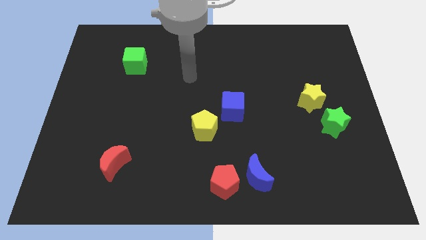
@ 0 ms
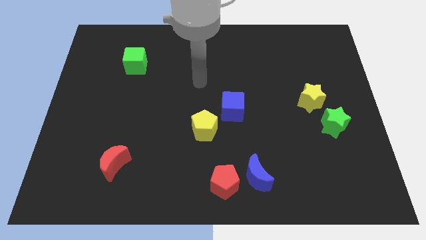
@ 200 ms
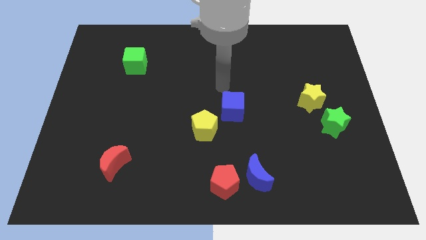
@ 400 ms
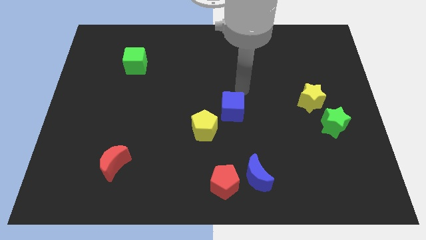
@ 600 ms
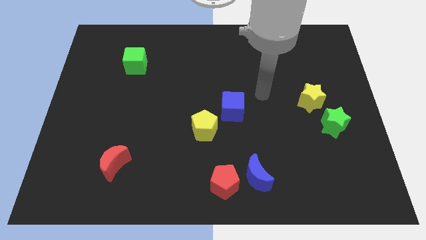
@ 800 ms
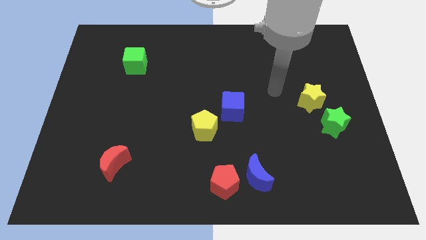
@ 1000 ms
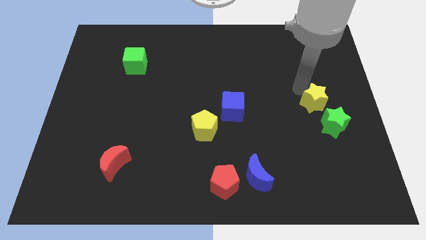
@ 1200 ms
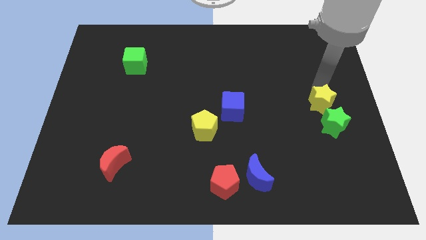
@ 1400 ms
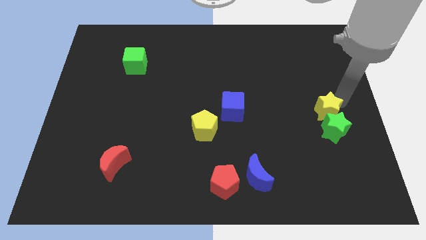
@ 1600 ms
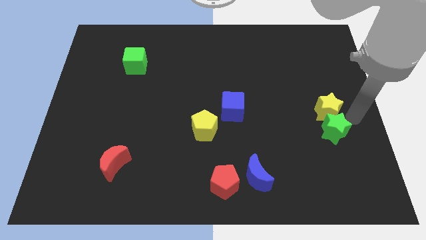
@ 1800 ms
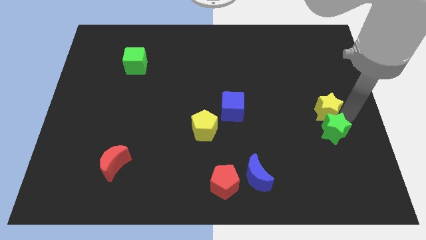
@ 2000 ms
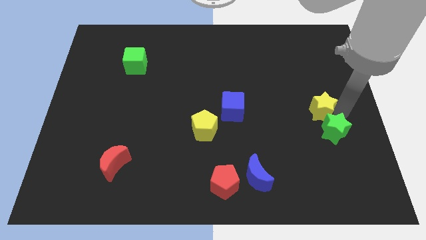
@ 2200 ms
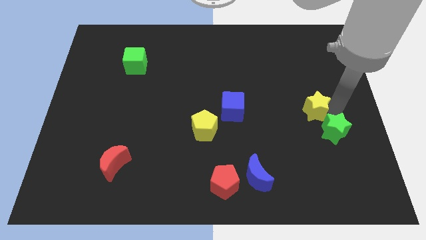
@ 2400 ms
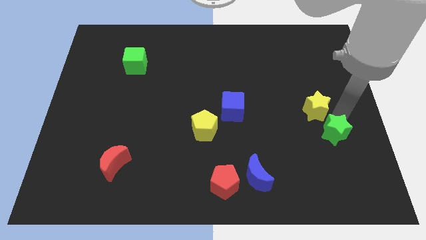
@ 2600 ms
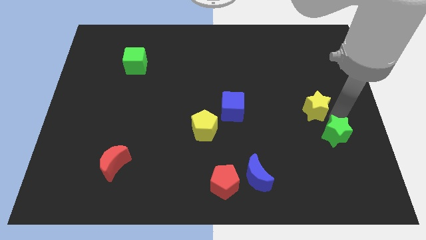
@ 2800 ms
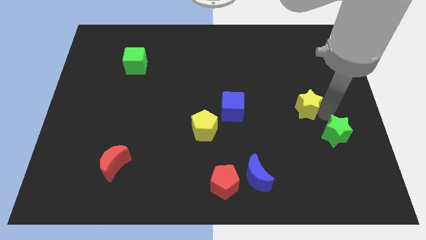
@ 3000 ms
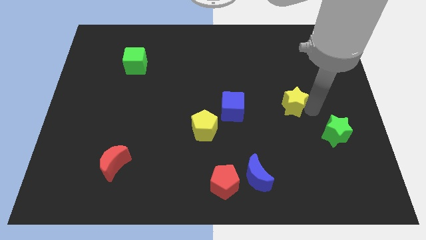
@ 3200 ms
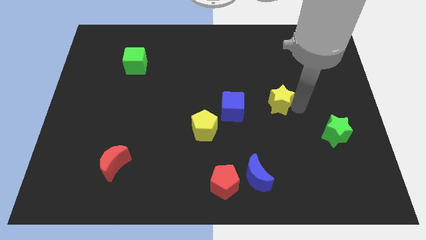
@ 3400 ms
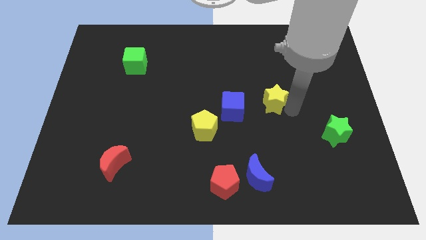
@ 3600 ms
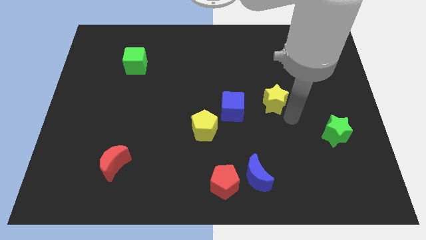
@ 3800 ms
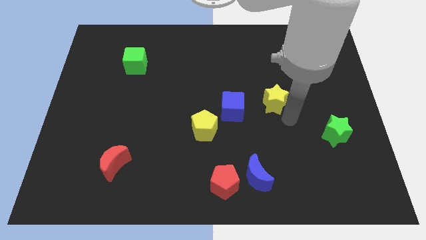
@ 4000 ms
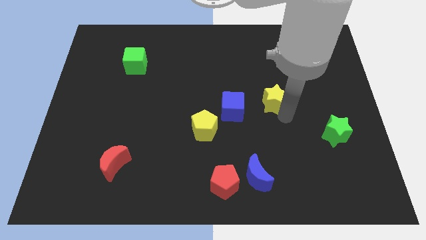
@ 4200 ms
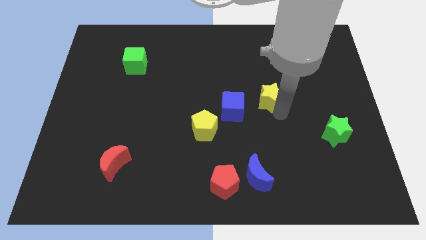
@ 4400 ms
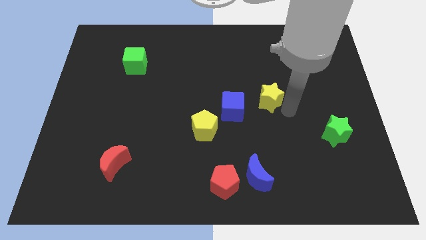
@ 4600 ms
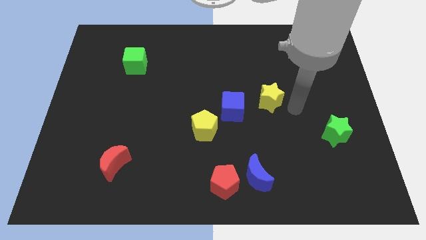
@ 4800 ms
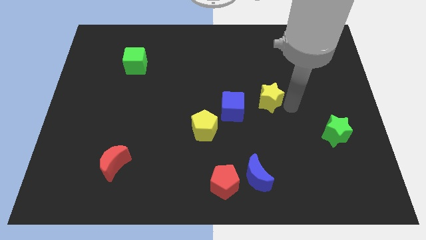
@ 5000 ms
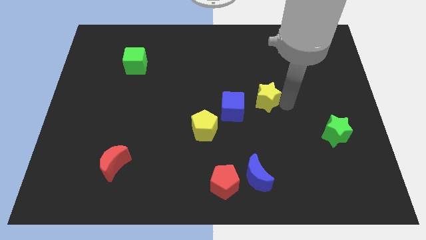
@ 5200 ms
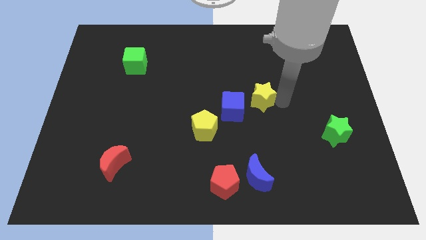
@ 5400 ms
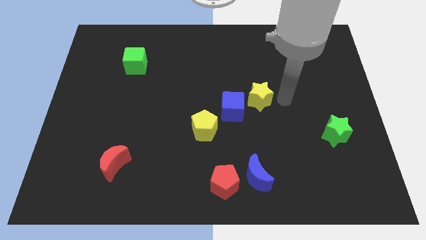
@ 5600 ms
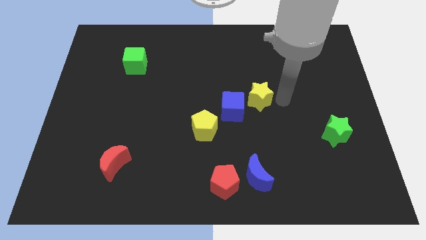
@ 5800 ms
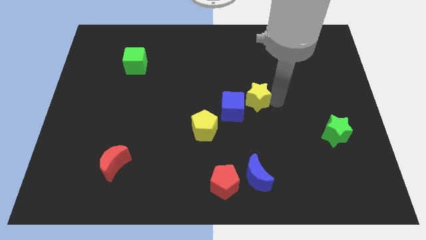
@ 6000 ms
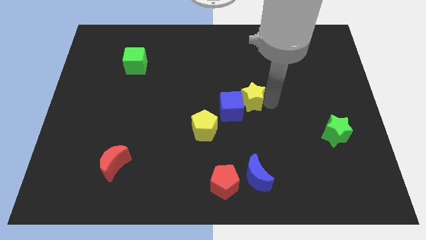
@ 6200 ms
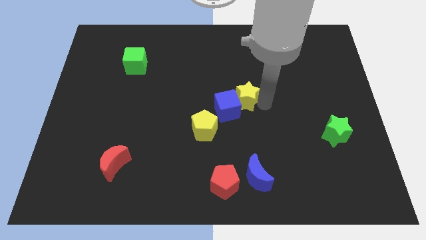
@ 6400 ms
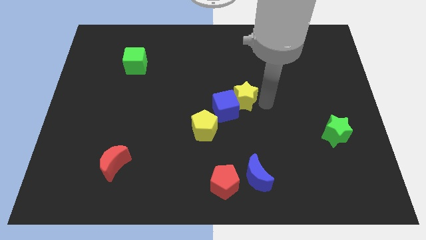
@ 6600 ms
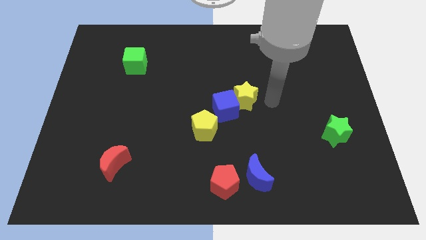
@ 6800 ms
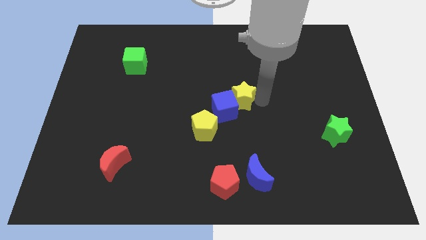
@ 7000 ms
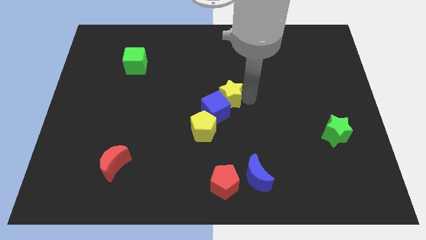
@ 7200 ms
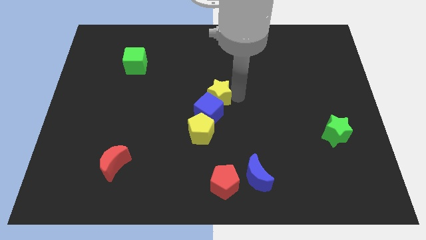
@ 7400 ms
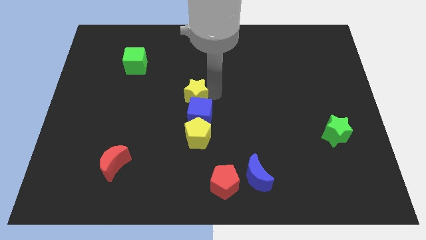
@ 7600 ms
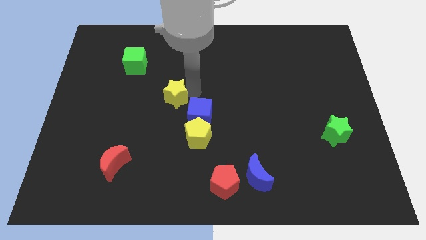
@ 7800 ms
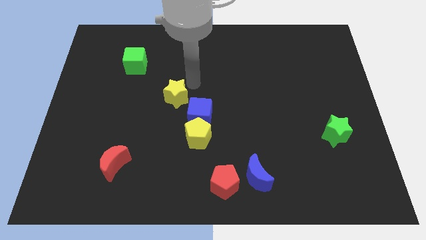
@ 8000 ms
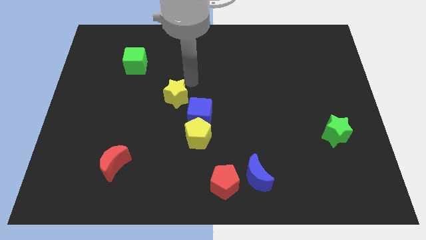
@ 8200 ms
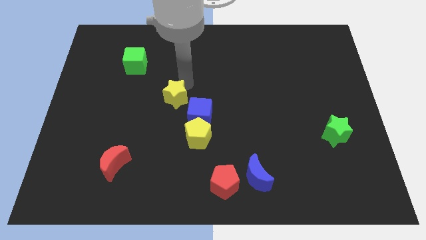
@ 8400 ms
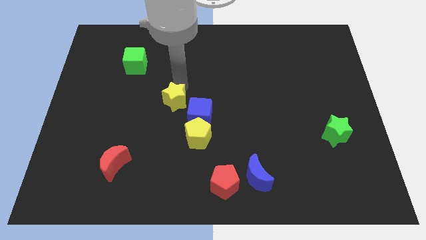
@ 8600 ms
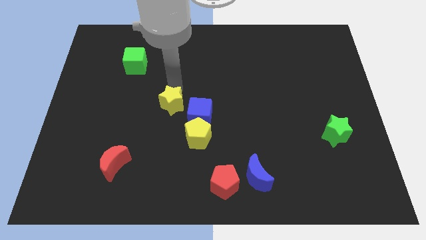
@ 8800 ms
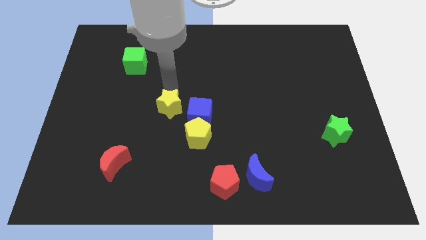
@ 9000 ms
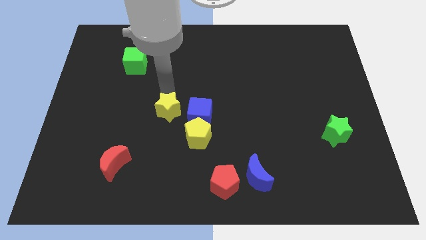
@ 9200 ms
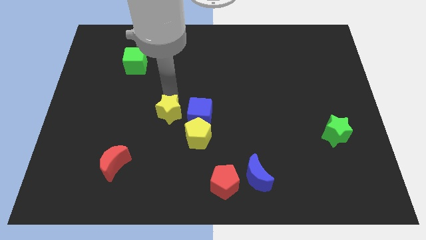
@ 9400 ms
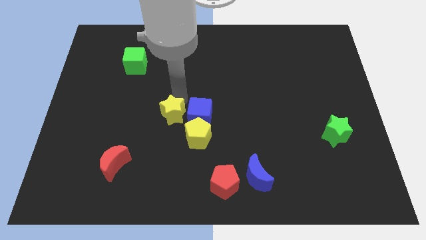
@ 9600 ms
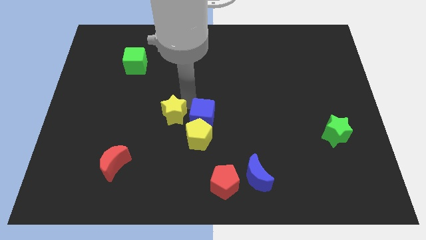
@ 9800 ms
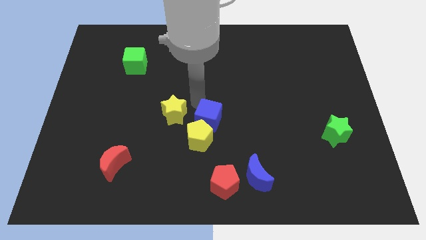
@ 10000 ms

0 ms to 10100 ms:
push the yellow star just left of the blue cube

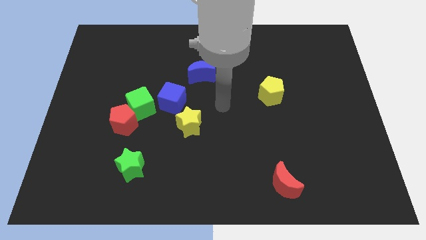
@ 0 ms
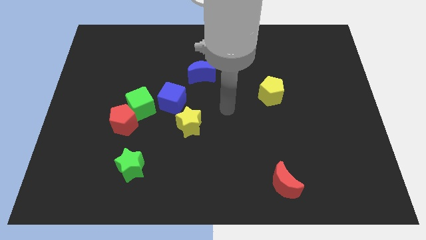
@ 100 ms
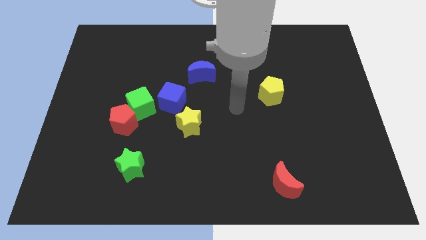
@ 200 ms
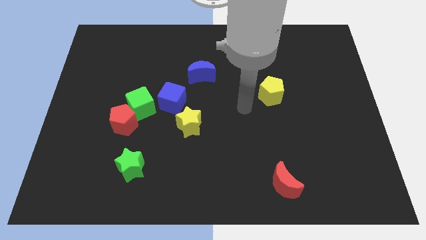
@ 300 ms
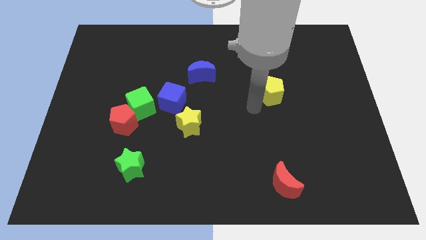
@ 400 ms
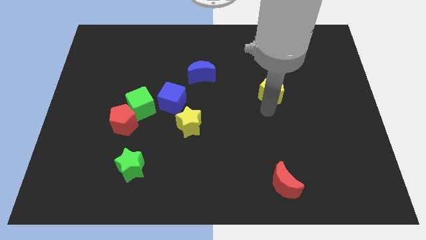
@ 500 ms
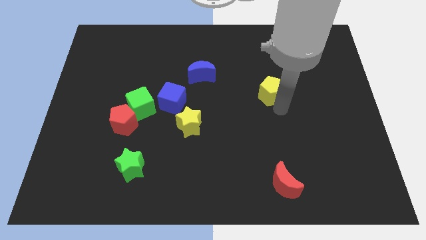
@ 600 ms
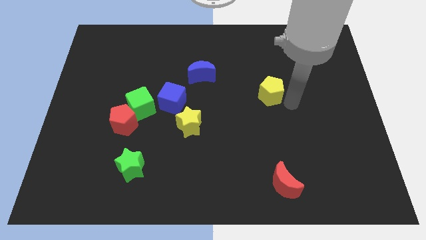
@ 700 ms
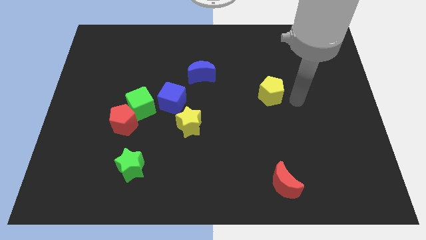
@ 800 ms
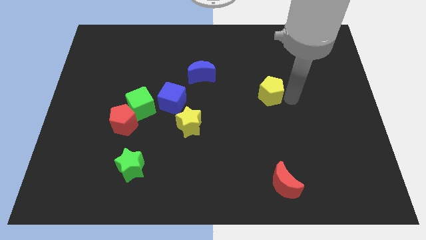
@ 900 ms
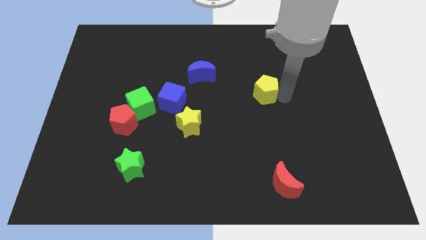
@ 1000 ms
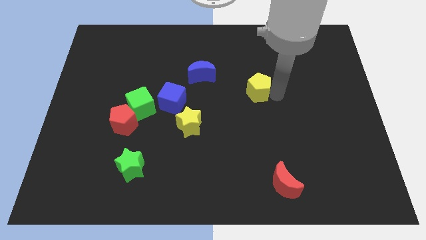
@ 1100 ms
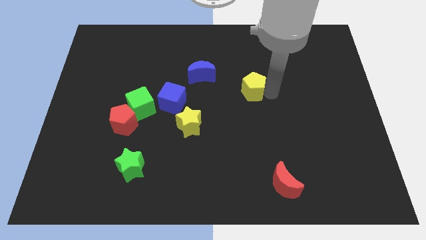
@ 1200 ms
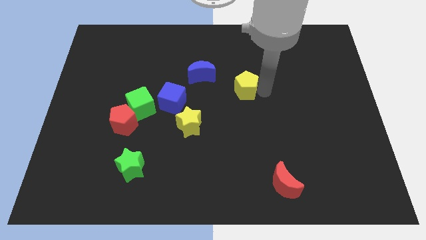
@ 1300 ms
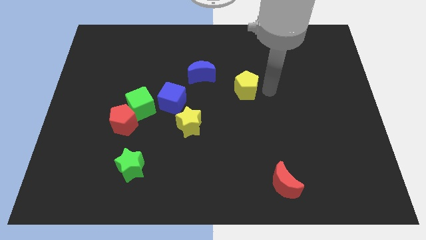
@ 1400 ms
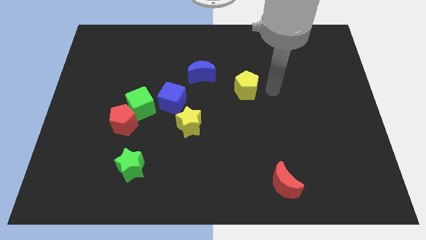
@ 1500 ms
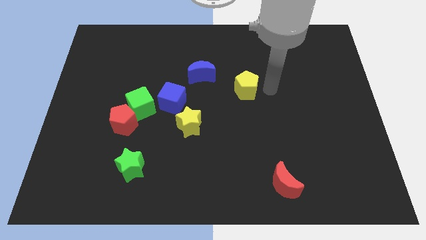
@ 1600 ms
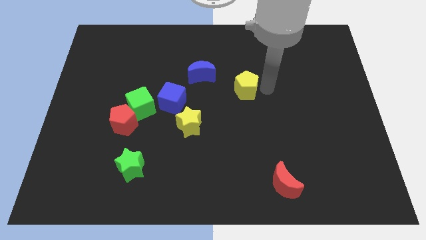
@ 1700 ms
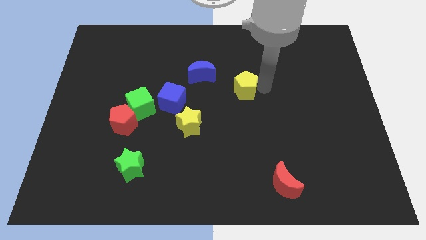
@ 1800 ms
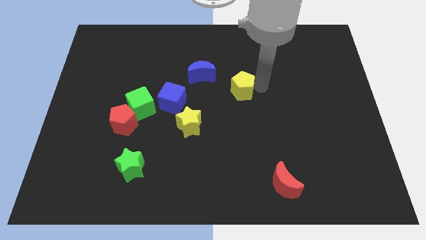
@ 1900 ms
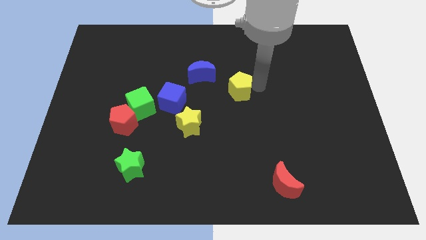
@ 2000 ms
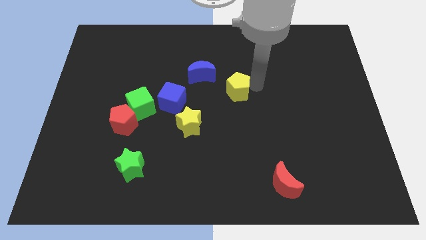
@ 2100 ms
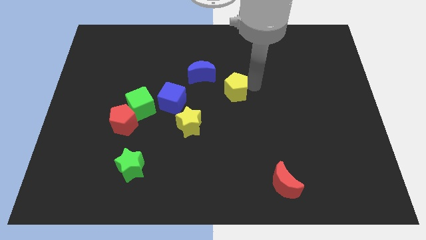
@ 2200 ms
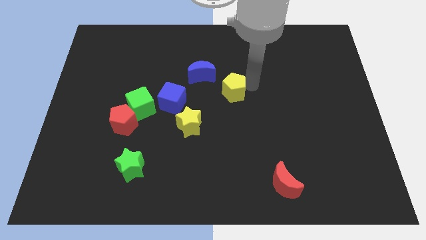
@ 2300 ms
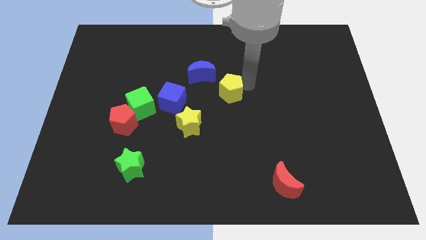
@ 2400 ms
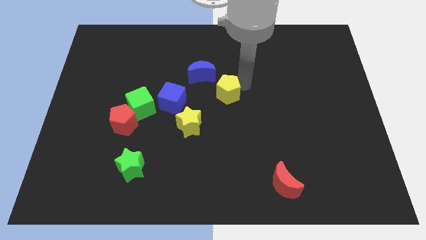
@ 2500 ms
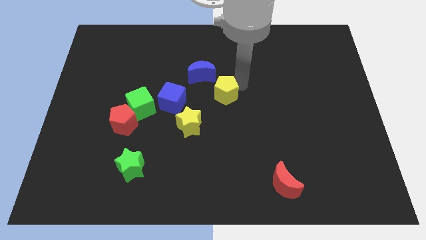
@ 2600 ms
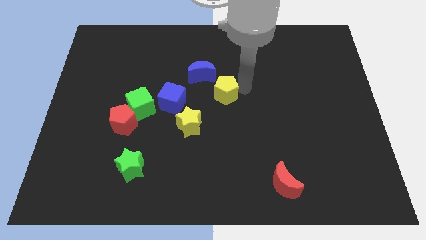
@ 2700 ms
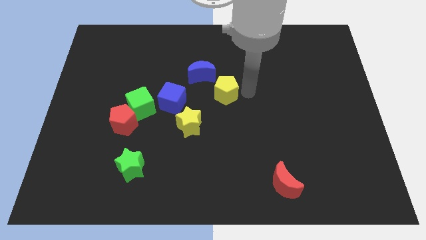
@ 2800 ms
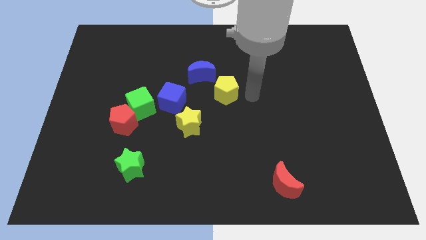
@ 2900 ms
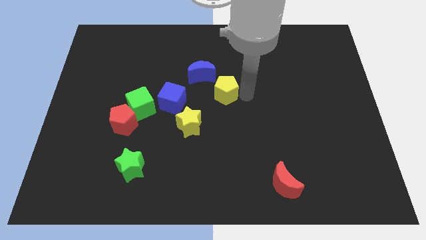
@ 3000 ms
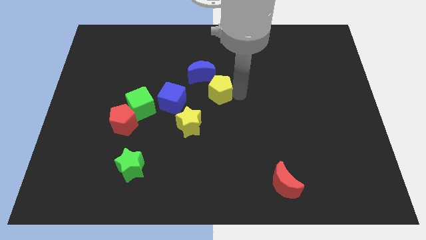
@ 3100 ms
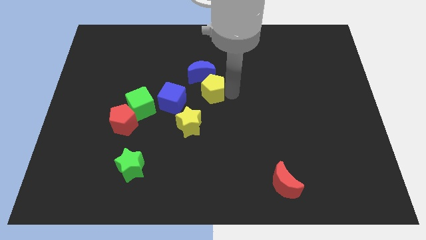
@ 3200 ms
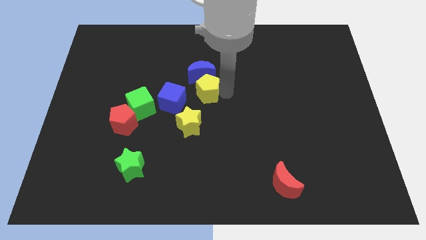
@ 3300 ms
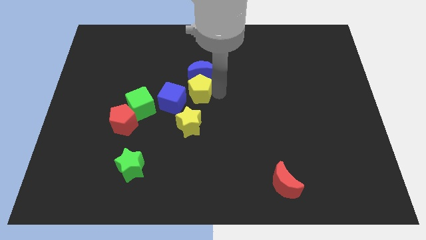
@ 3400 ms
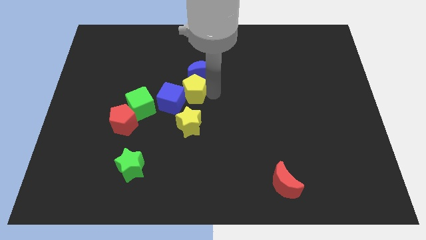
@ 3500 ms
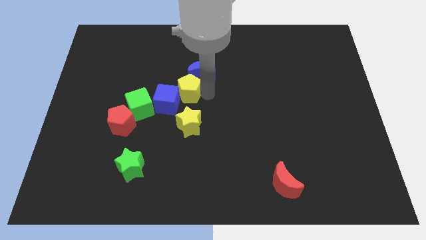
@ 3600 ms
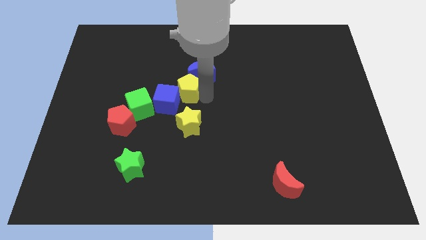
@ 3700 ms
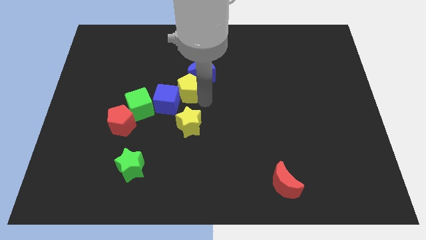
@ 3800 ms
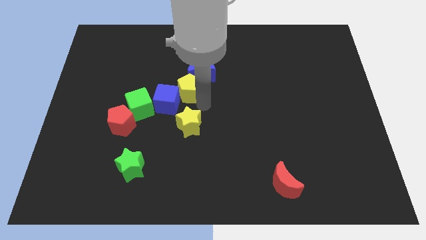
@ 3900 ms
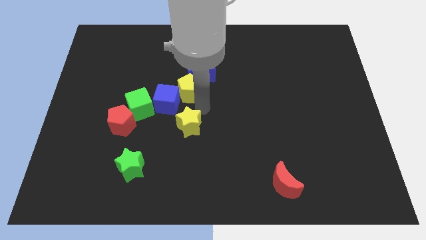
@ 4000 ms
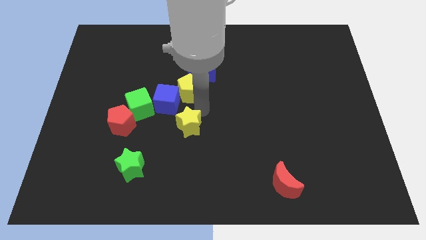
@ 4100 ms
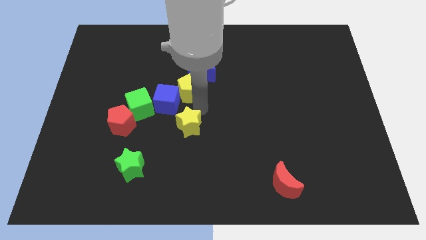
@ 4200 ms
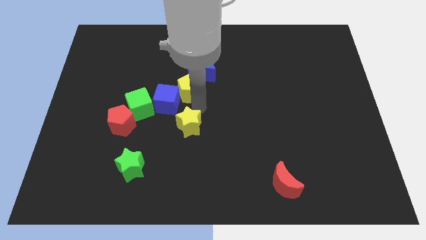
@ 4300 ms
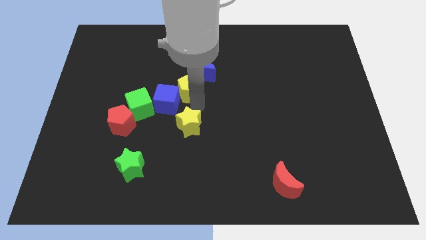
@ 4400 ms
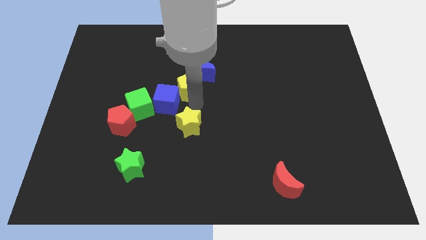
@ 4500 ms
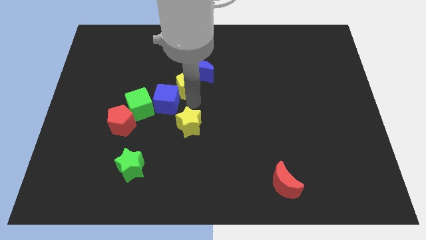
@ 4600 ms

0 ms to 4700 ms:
push the yellow pentagon to the top side of the blue cube
